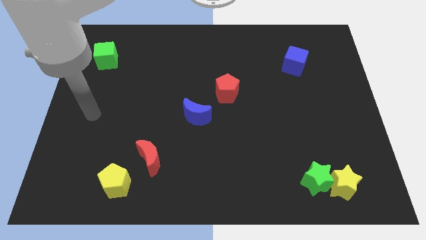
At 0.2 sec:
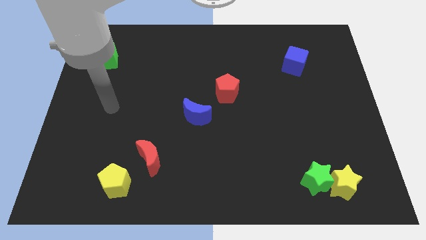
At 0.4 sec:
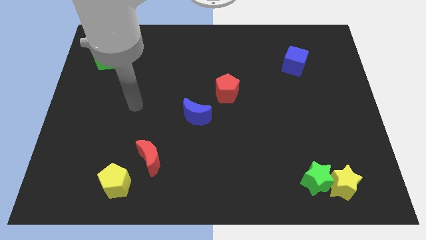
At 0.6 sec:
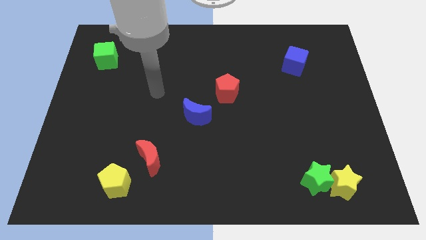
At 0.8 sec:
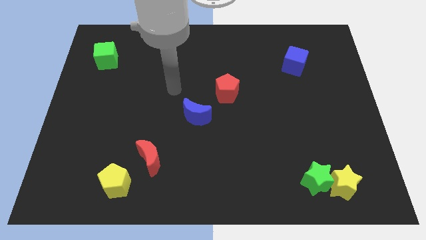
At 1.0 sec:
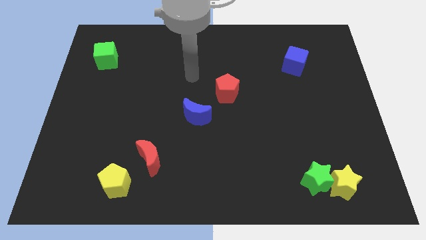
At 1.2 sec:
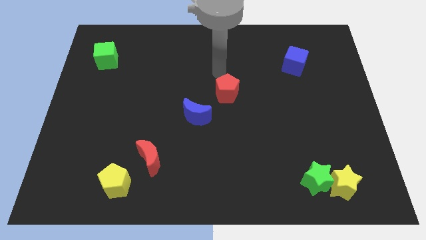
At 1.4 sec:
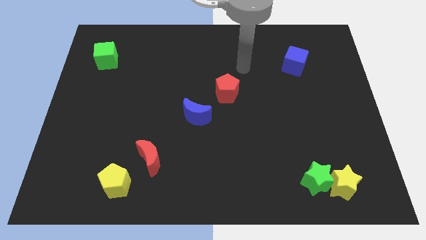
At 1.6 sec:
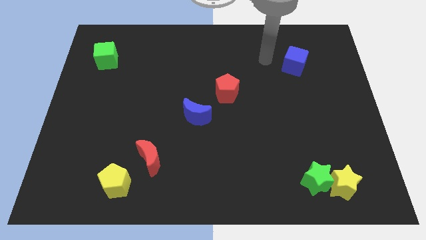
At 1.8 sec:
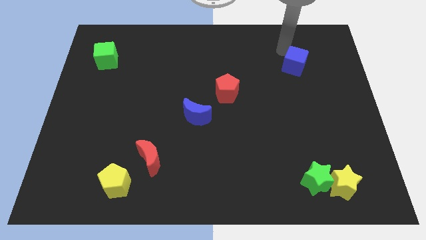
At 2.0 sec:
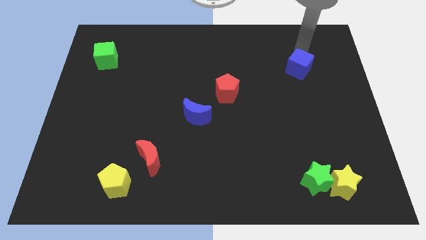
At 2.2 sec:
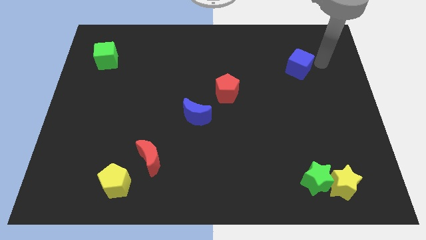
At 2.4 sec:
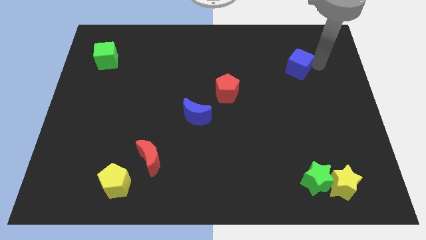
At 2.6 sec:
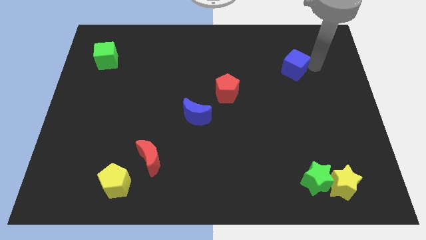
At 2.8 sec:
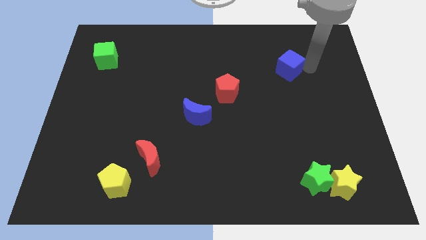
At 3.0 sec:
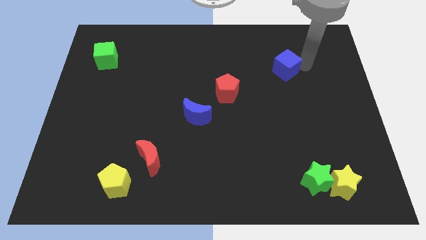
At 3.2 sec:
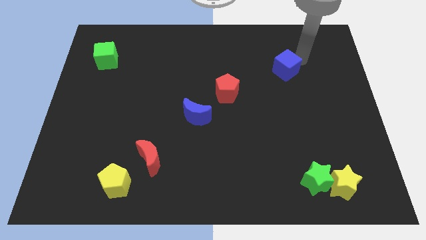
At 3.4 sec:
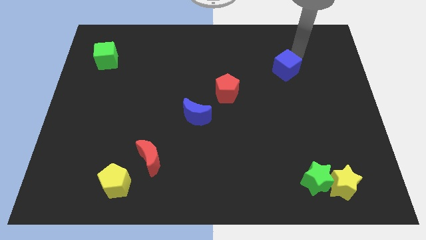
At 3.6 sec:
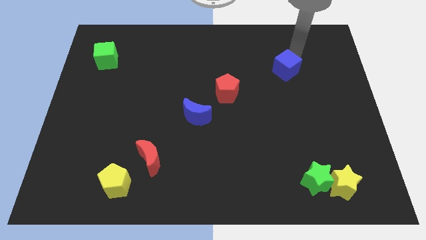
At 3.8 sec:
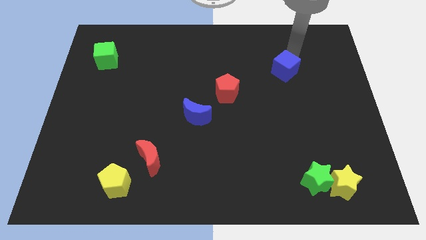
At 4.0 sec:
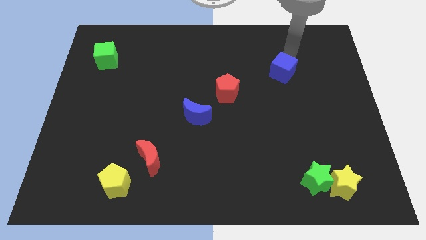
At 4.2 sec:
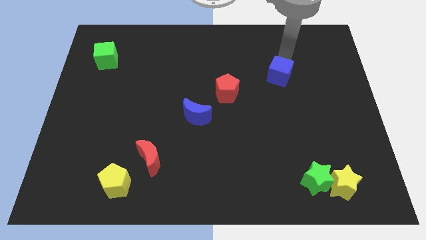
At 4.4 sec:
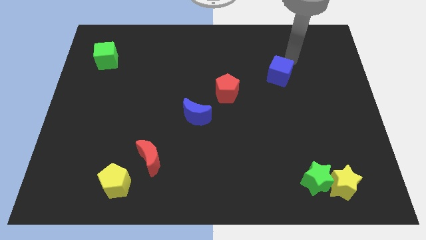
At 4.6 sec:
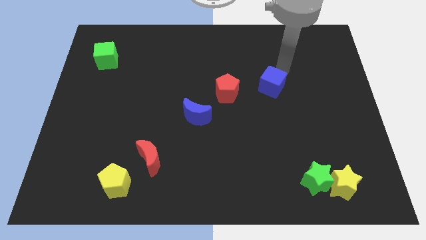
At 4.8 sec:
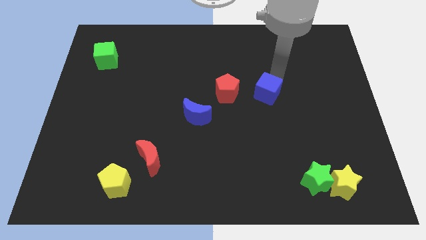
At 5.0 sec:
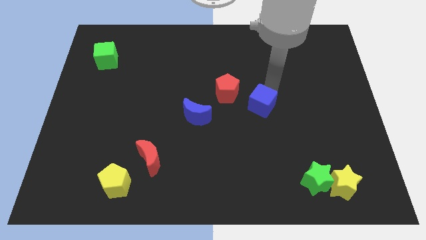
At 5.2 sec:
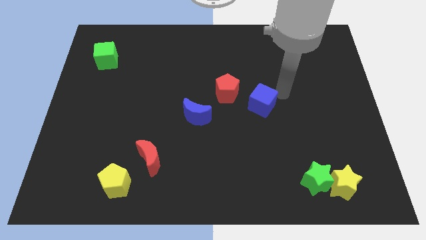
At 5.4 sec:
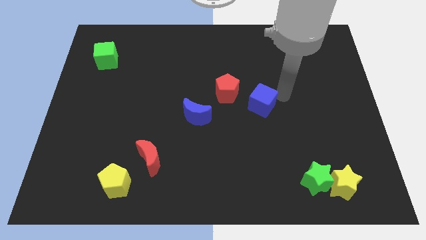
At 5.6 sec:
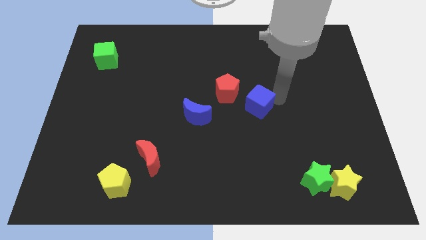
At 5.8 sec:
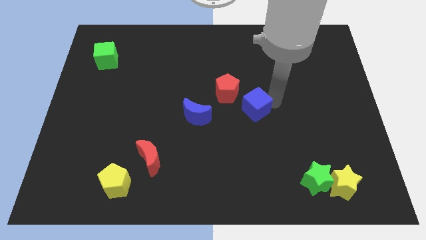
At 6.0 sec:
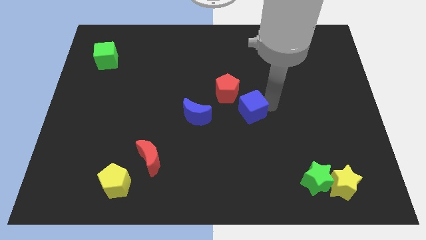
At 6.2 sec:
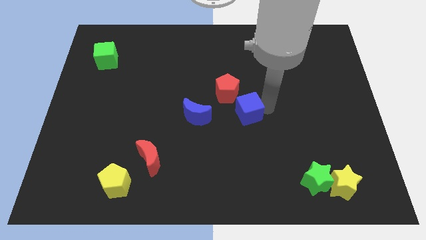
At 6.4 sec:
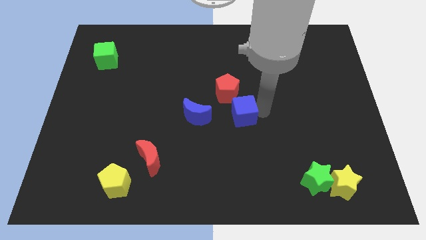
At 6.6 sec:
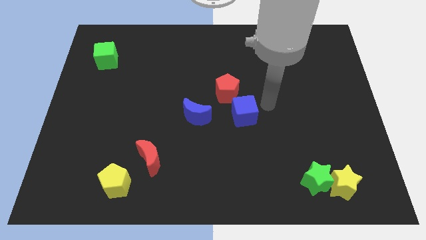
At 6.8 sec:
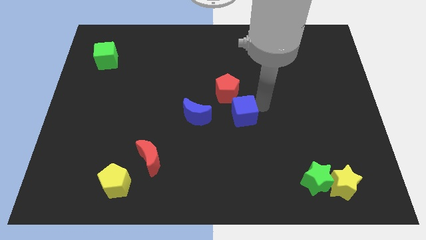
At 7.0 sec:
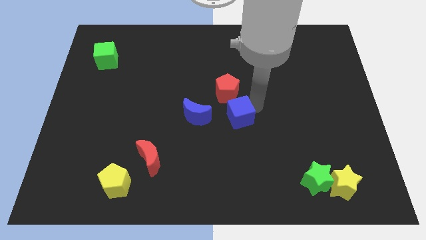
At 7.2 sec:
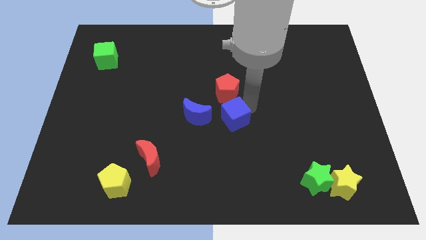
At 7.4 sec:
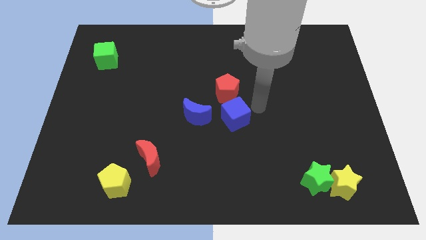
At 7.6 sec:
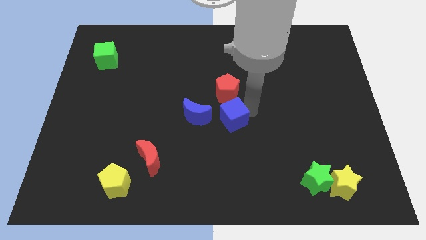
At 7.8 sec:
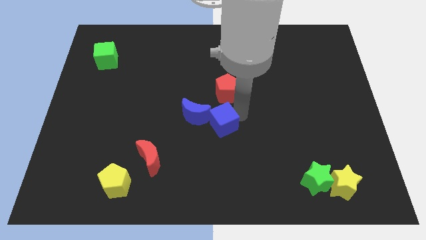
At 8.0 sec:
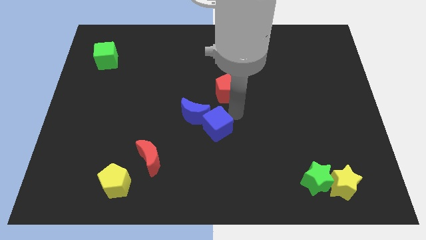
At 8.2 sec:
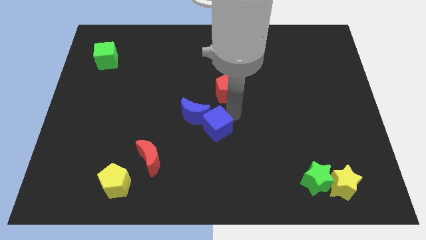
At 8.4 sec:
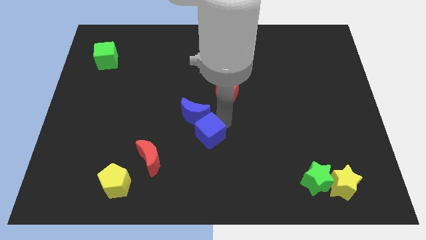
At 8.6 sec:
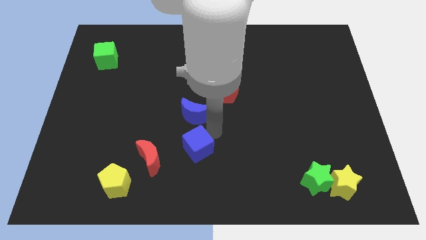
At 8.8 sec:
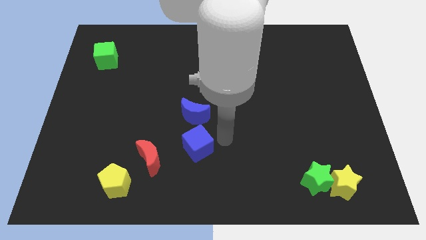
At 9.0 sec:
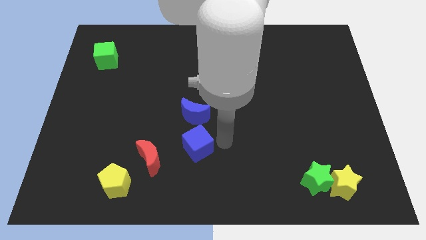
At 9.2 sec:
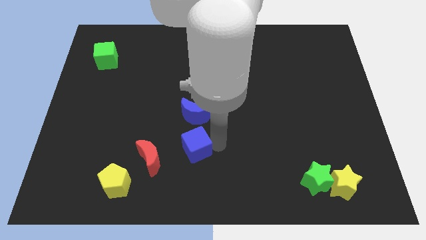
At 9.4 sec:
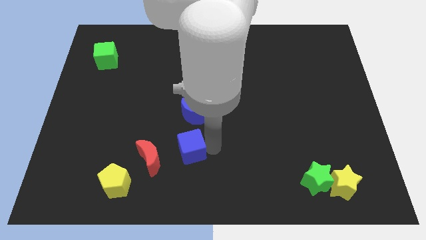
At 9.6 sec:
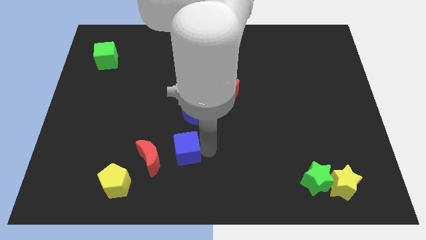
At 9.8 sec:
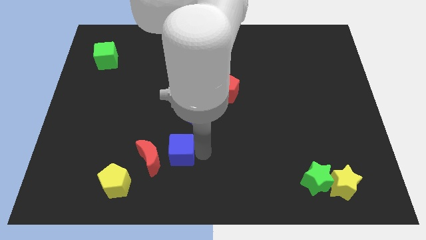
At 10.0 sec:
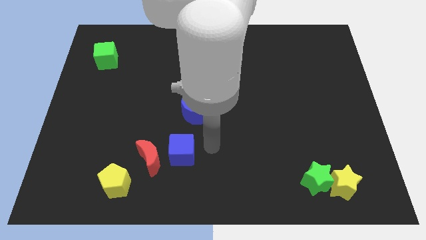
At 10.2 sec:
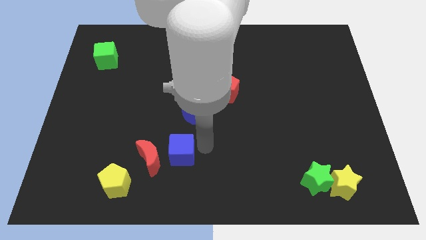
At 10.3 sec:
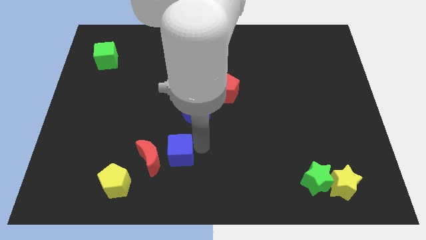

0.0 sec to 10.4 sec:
move the blue cube next to the red moon

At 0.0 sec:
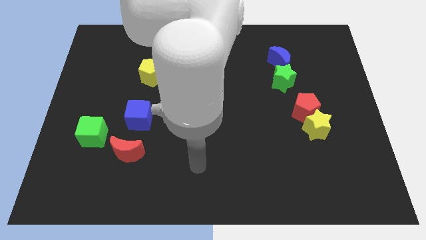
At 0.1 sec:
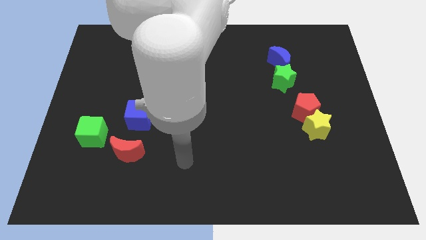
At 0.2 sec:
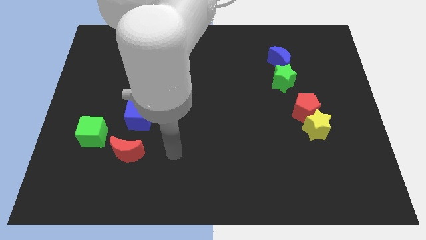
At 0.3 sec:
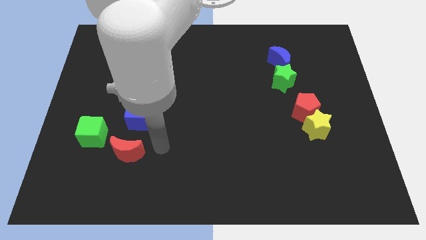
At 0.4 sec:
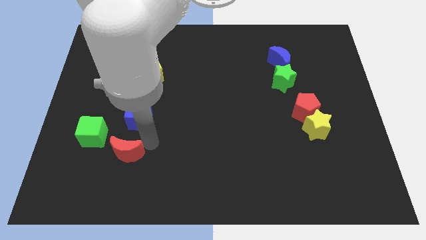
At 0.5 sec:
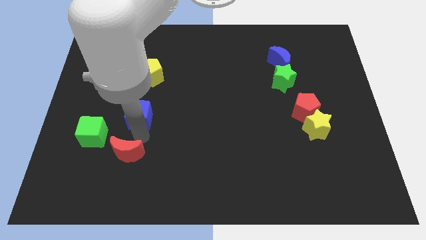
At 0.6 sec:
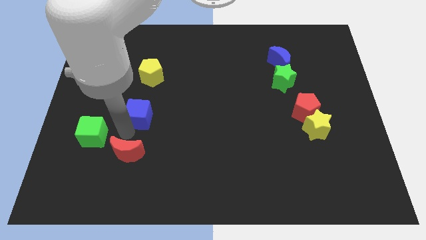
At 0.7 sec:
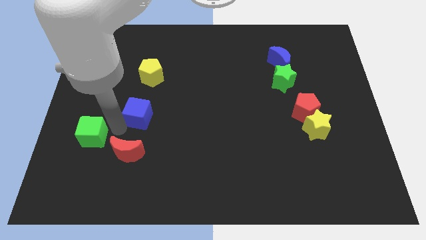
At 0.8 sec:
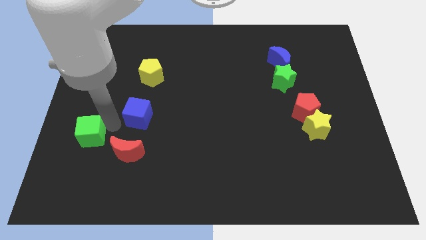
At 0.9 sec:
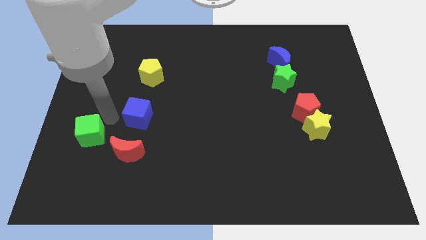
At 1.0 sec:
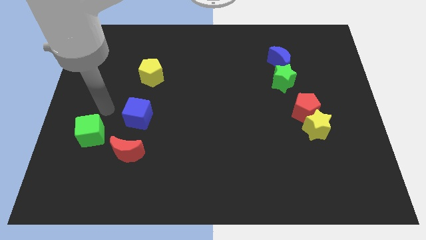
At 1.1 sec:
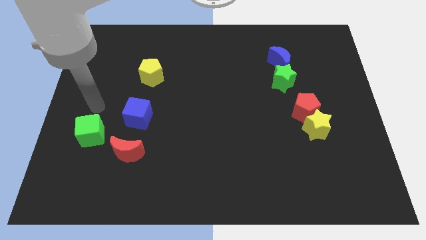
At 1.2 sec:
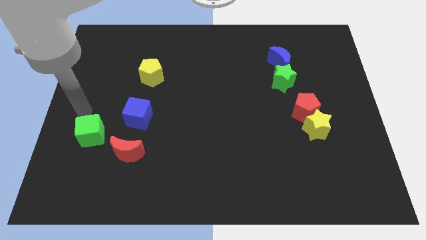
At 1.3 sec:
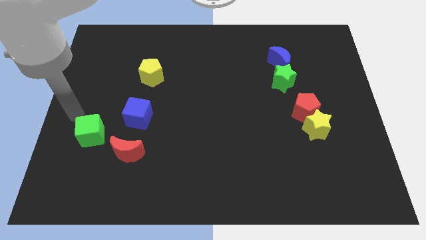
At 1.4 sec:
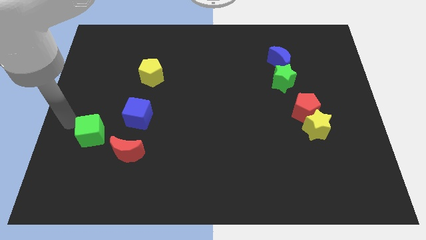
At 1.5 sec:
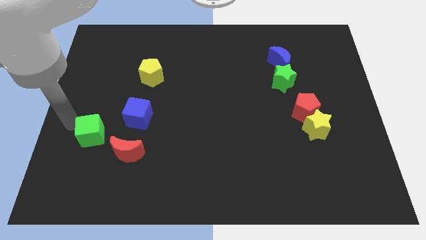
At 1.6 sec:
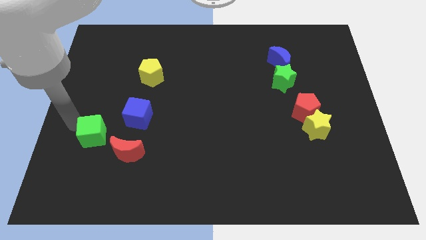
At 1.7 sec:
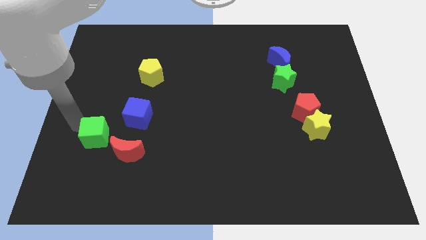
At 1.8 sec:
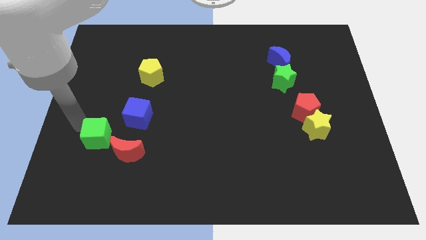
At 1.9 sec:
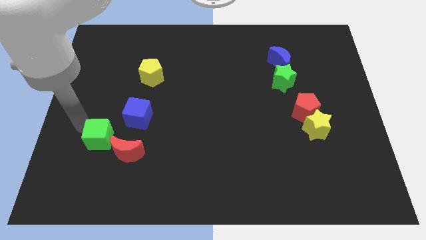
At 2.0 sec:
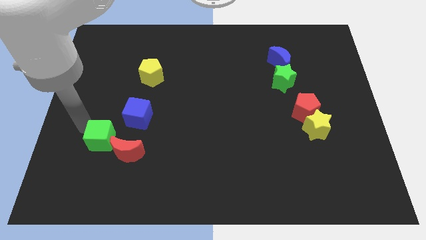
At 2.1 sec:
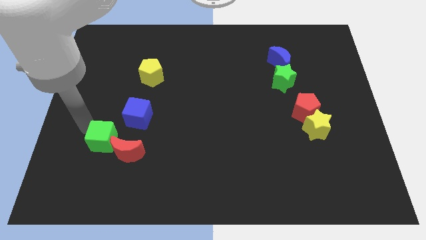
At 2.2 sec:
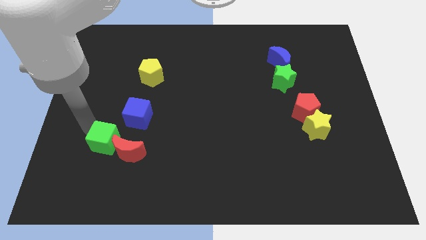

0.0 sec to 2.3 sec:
put the green cube close to the red moon
